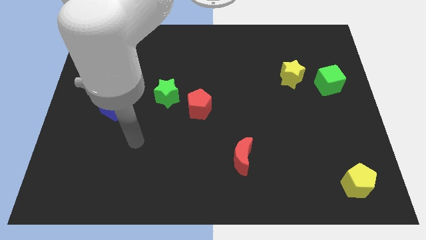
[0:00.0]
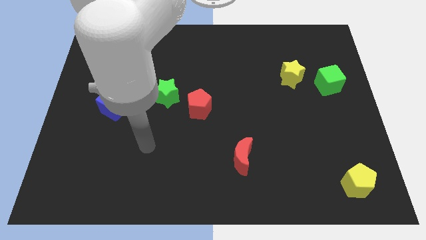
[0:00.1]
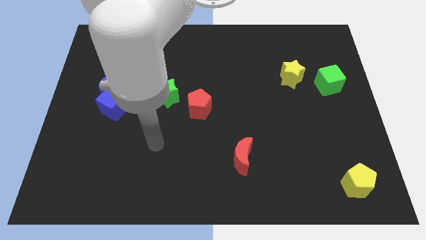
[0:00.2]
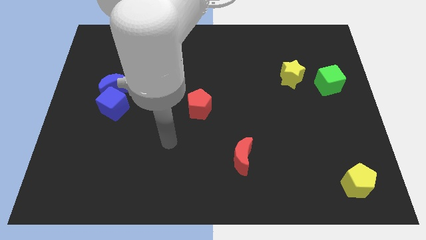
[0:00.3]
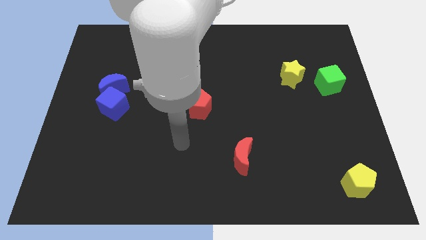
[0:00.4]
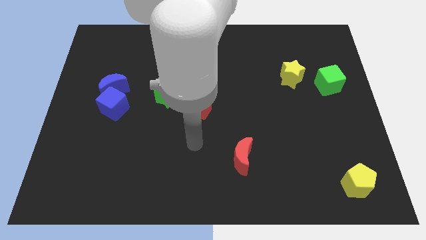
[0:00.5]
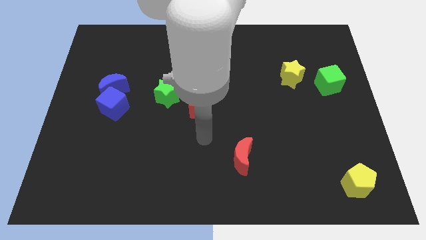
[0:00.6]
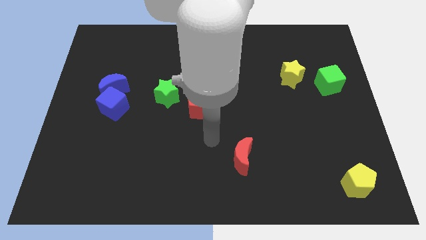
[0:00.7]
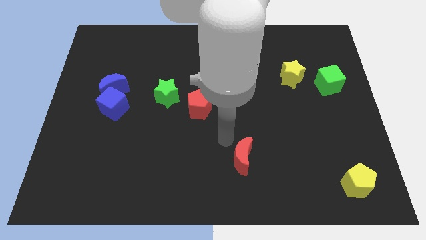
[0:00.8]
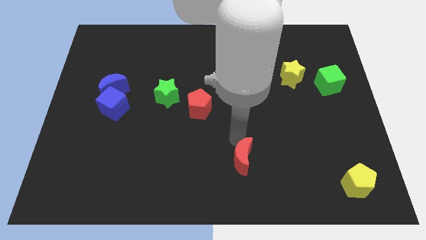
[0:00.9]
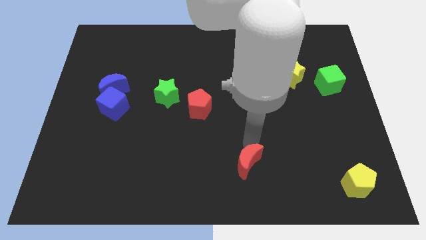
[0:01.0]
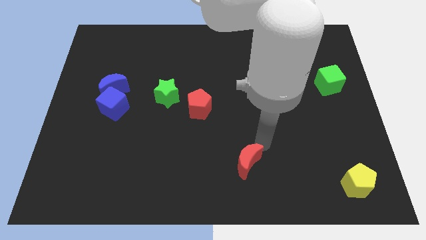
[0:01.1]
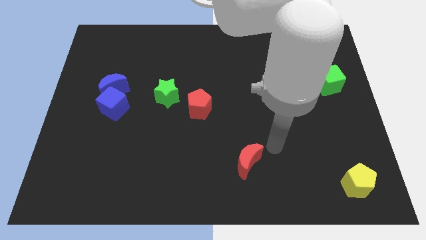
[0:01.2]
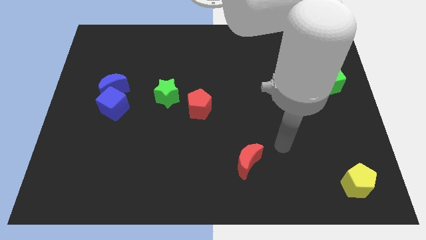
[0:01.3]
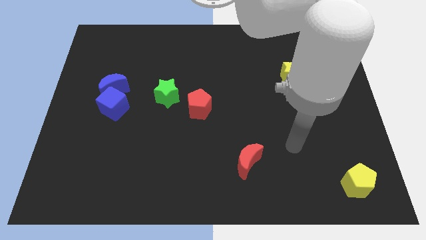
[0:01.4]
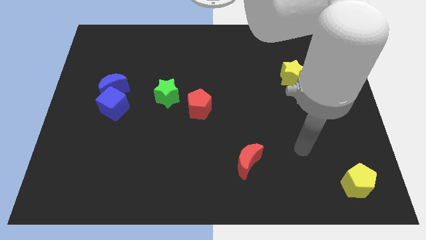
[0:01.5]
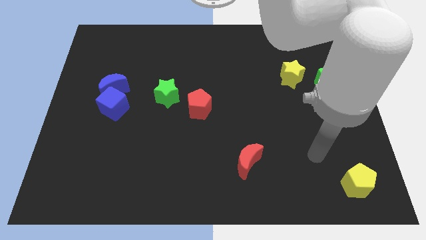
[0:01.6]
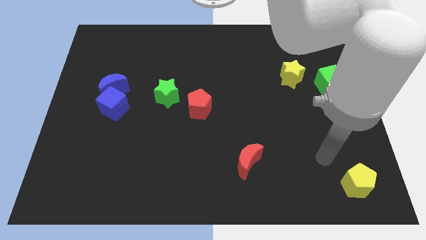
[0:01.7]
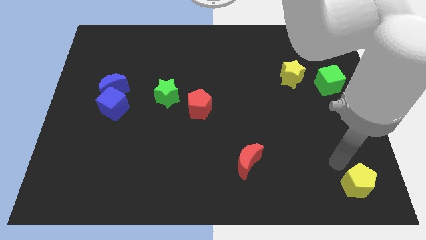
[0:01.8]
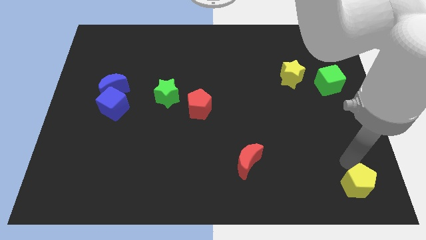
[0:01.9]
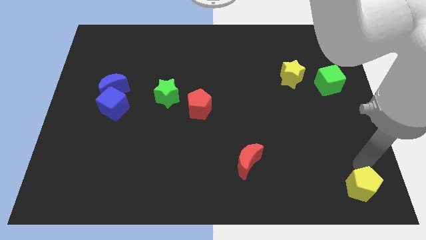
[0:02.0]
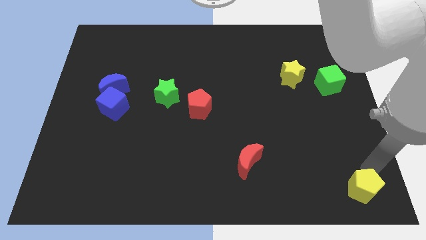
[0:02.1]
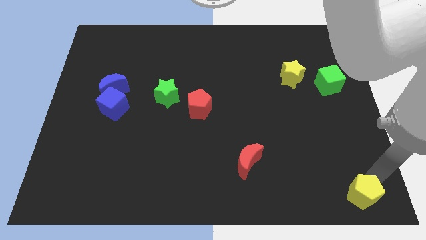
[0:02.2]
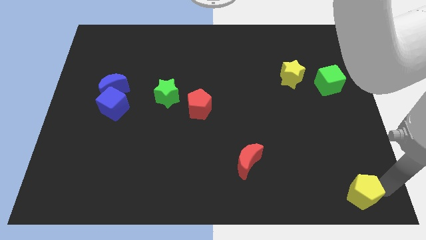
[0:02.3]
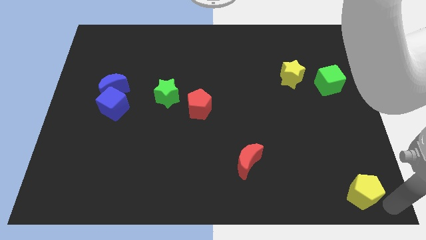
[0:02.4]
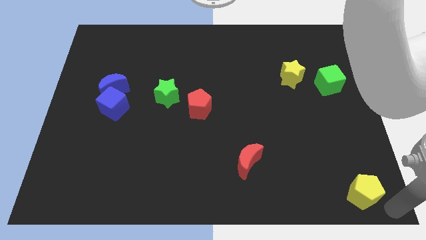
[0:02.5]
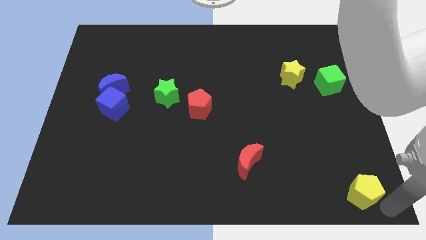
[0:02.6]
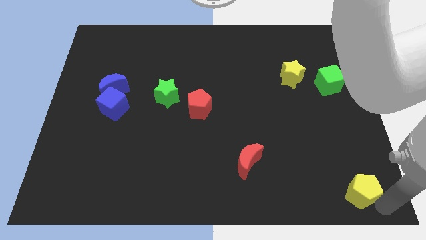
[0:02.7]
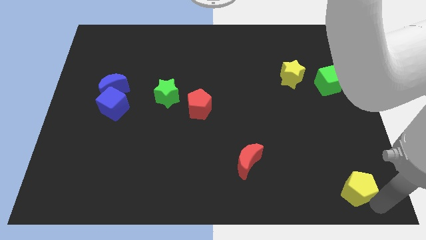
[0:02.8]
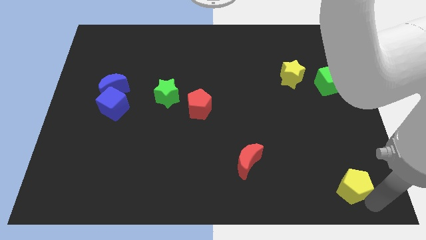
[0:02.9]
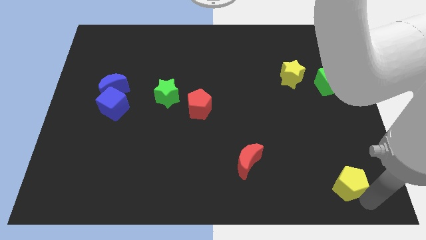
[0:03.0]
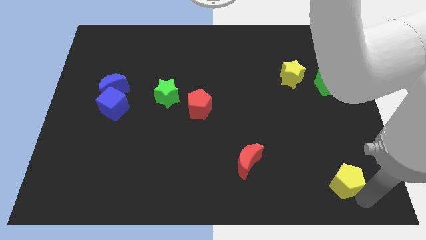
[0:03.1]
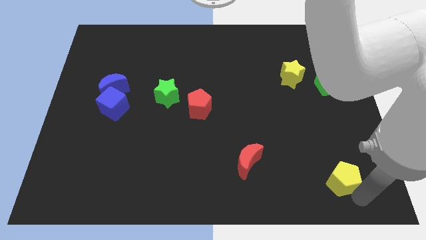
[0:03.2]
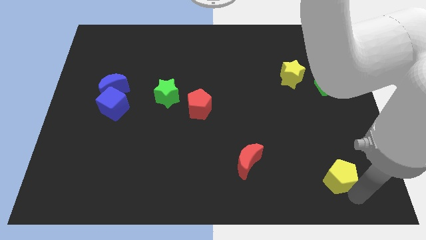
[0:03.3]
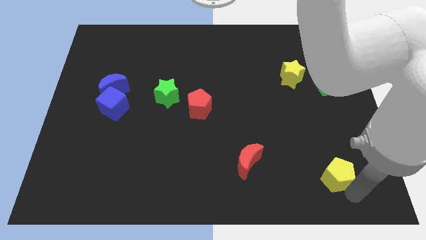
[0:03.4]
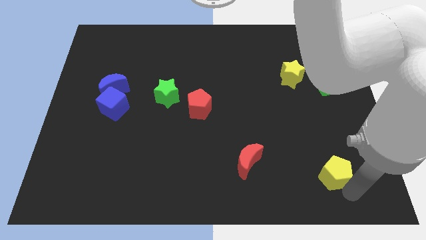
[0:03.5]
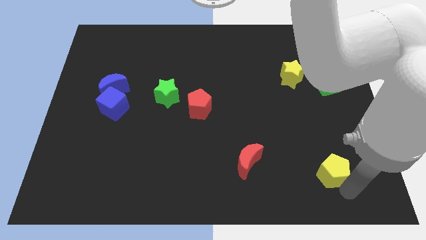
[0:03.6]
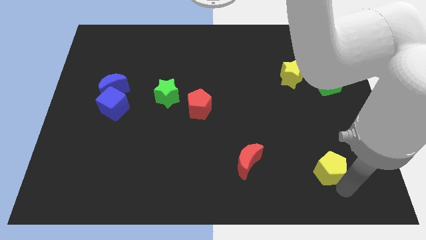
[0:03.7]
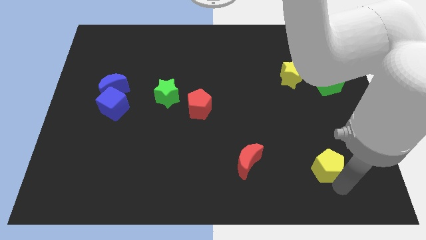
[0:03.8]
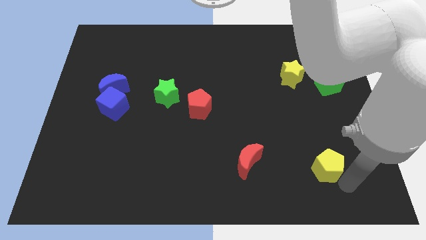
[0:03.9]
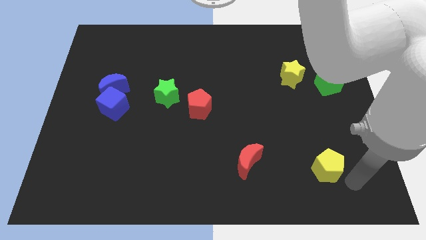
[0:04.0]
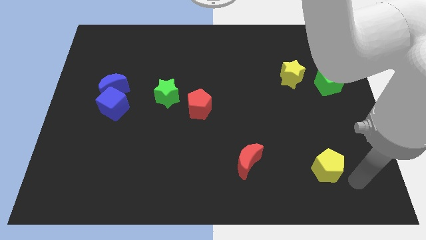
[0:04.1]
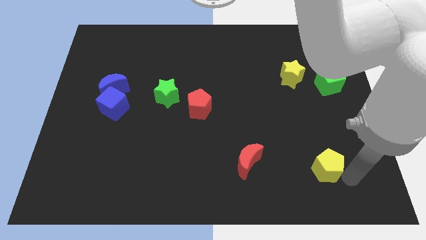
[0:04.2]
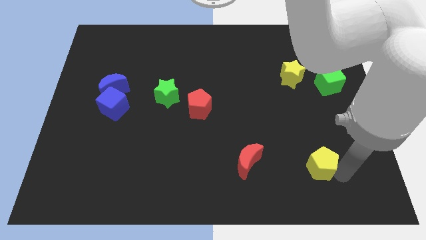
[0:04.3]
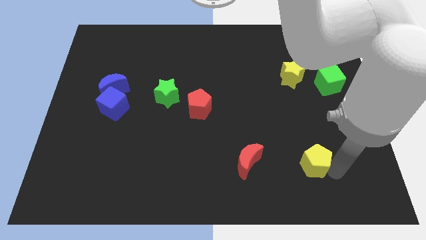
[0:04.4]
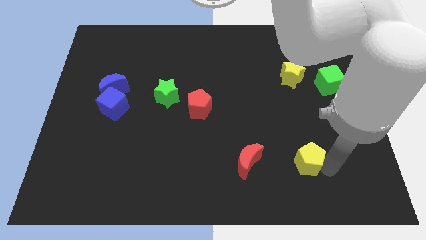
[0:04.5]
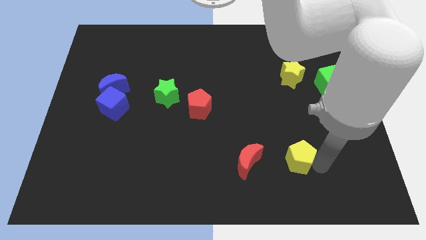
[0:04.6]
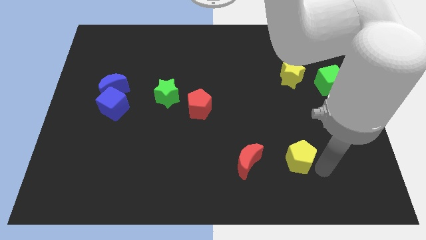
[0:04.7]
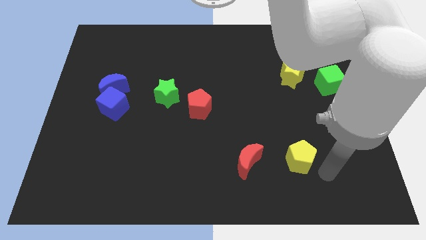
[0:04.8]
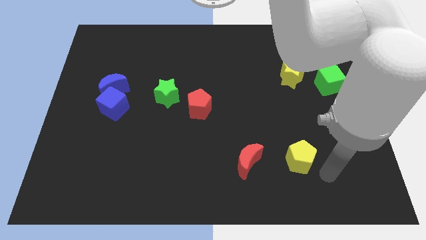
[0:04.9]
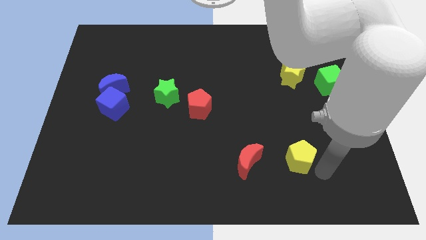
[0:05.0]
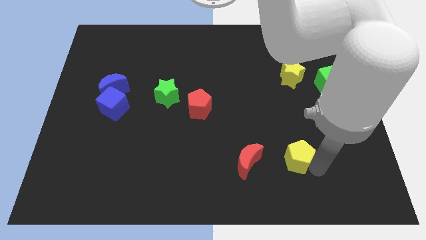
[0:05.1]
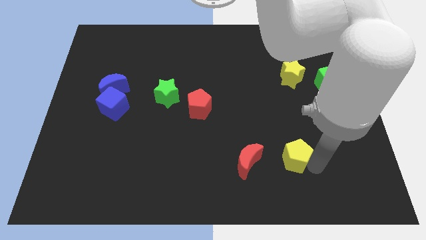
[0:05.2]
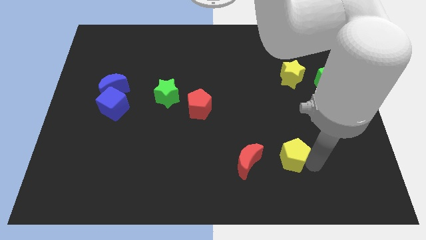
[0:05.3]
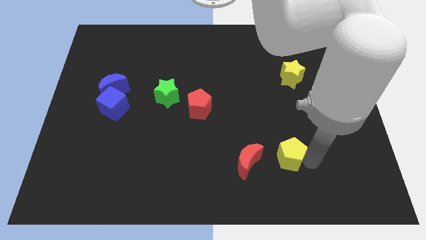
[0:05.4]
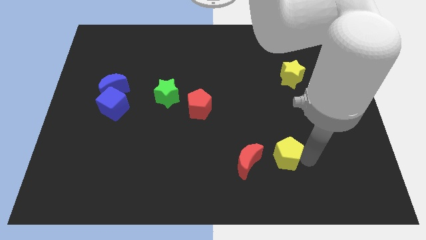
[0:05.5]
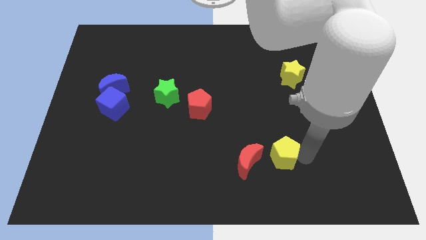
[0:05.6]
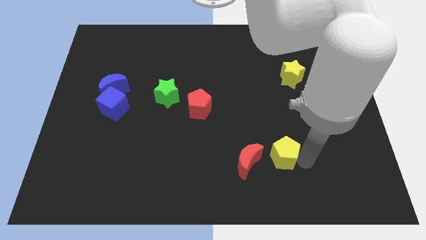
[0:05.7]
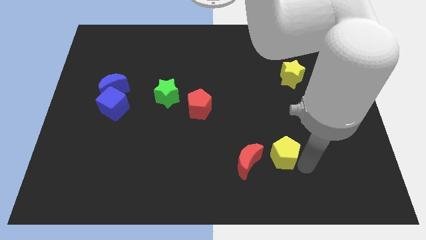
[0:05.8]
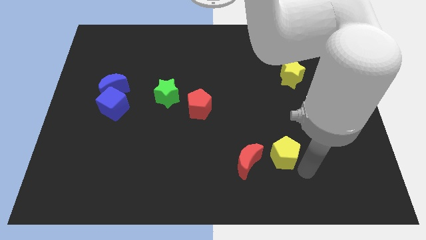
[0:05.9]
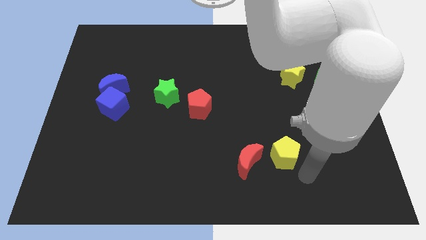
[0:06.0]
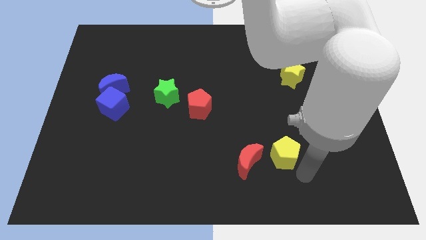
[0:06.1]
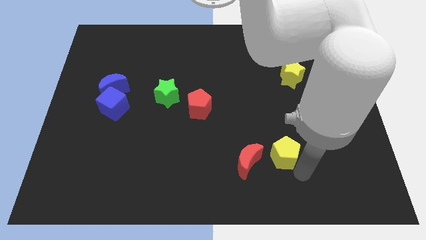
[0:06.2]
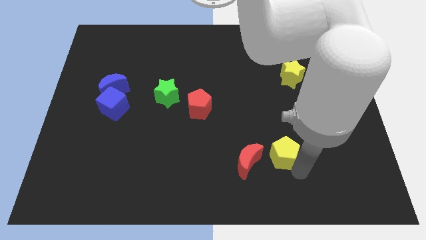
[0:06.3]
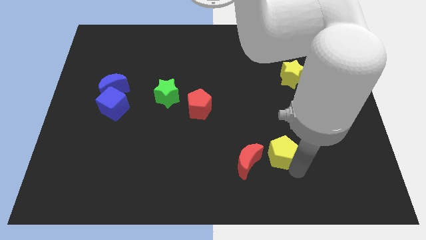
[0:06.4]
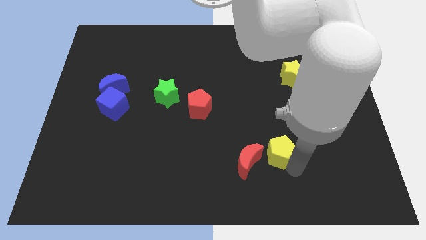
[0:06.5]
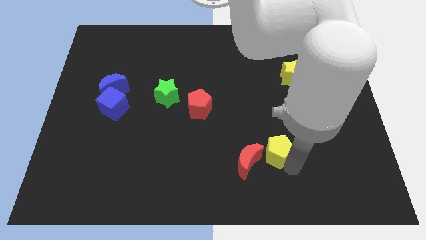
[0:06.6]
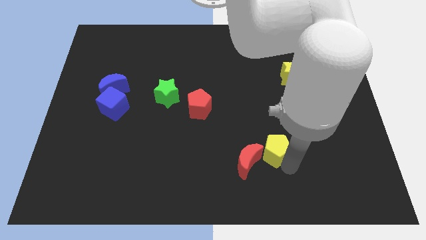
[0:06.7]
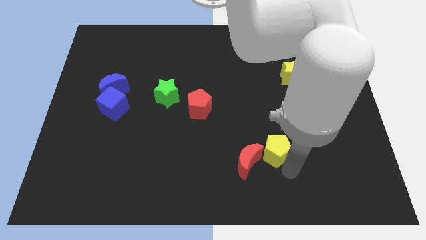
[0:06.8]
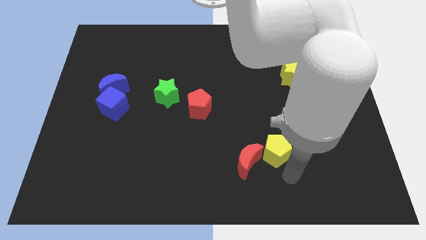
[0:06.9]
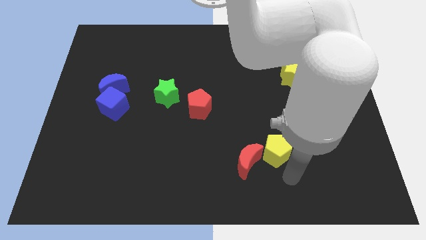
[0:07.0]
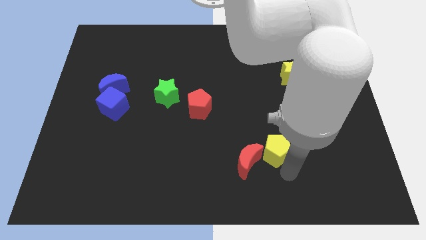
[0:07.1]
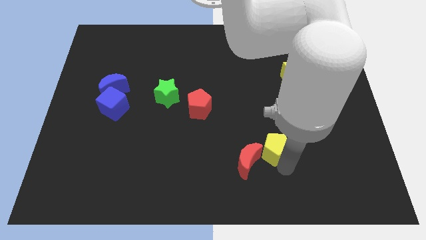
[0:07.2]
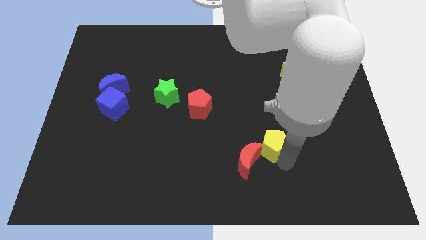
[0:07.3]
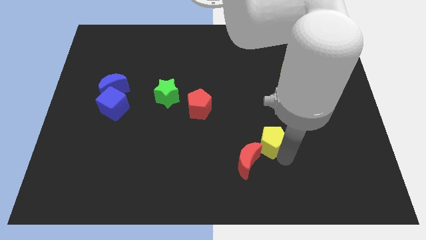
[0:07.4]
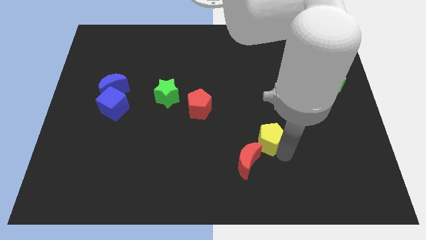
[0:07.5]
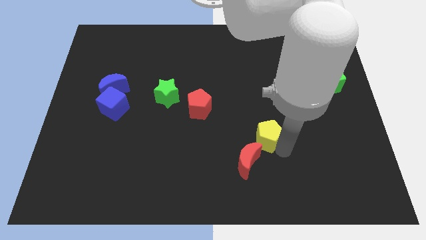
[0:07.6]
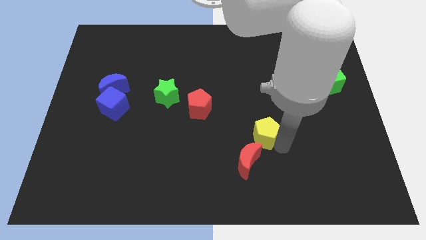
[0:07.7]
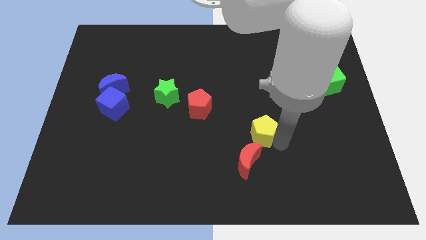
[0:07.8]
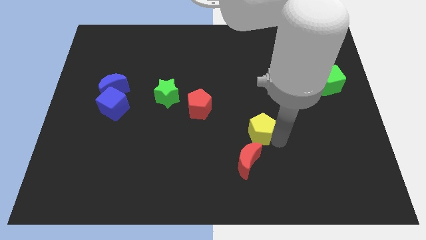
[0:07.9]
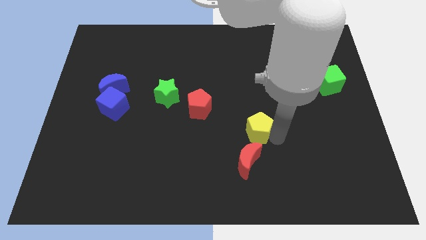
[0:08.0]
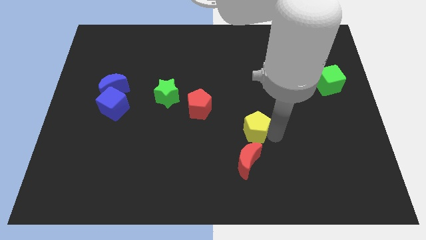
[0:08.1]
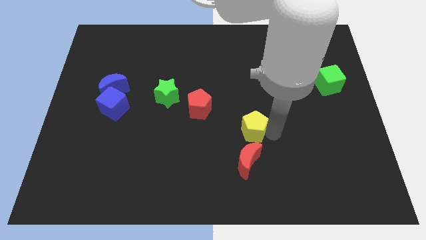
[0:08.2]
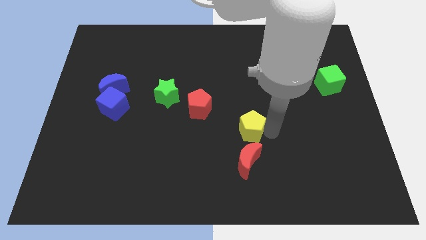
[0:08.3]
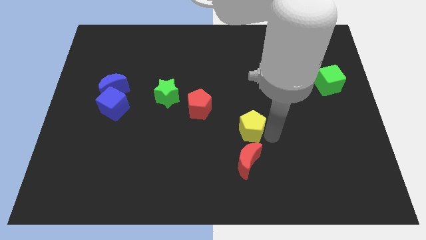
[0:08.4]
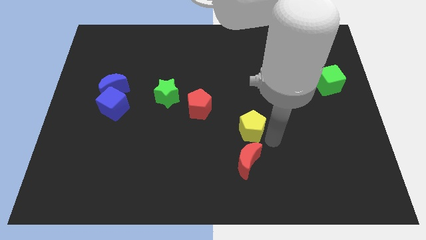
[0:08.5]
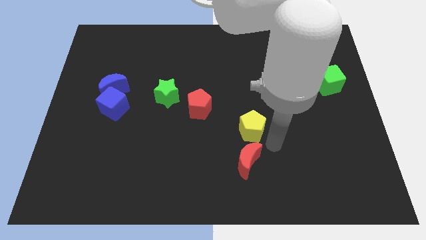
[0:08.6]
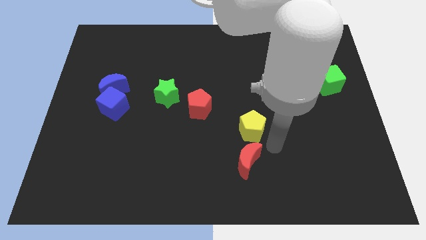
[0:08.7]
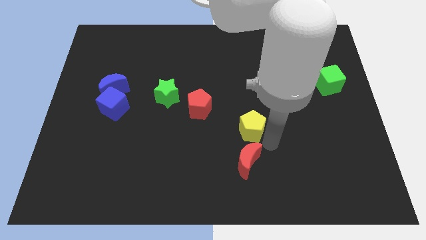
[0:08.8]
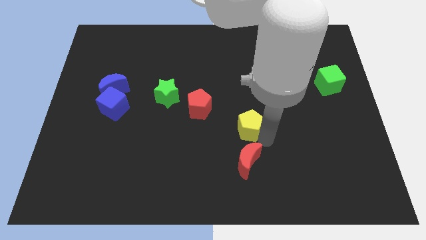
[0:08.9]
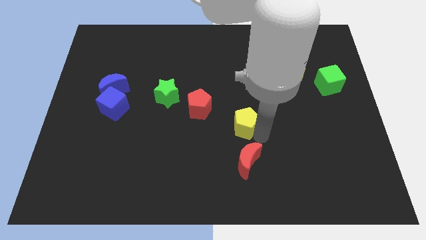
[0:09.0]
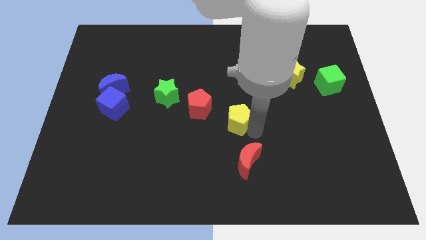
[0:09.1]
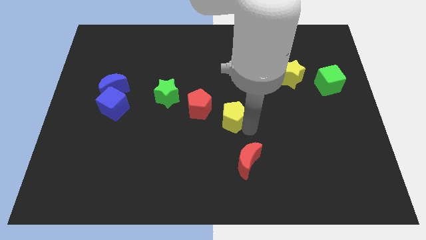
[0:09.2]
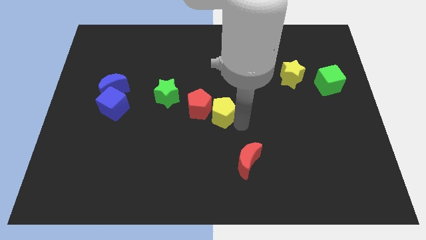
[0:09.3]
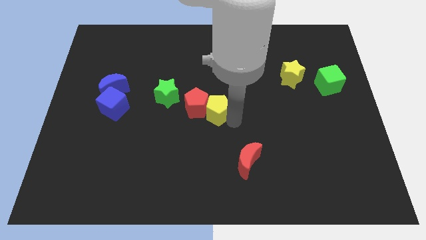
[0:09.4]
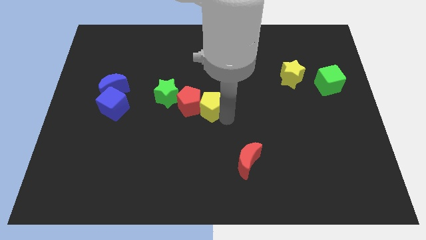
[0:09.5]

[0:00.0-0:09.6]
move the yellow pentagon to the right of the green star
